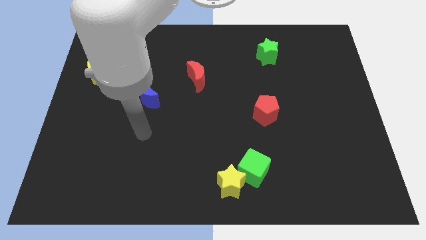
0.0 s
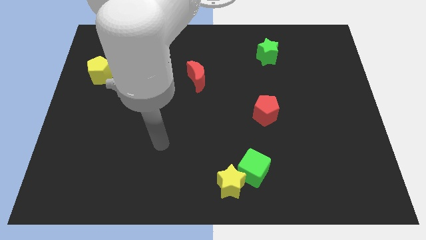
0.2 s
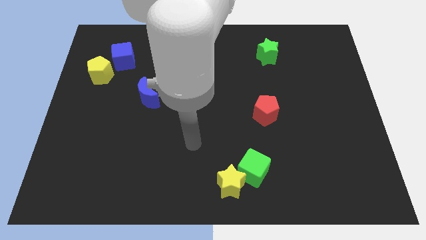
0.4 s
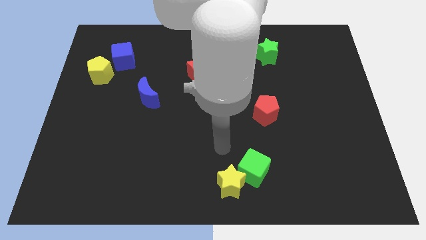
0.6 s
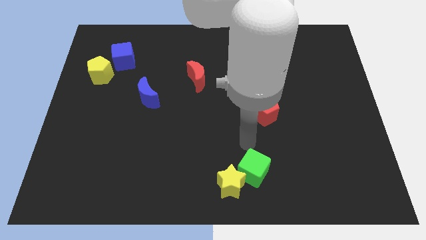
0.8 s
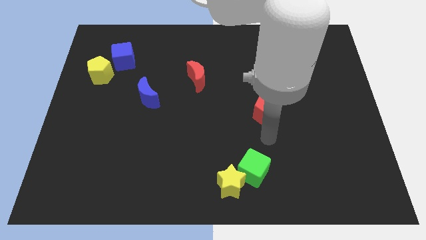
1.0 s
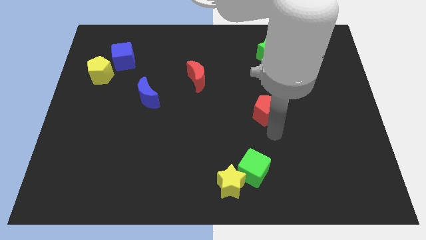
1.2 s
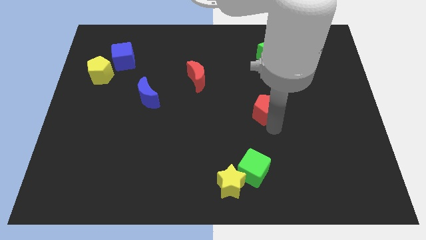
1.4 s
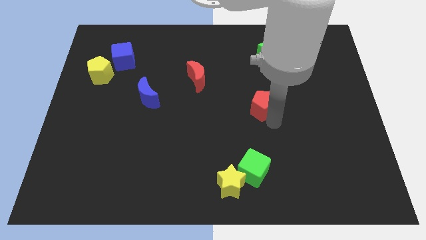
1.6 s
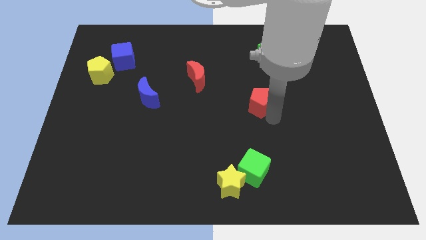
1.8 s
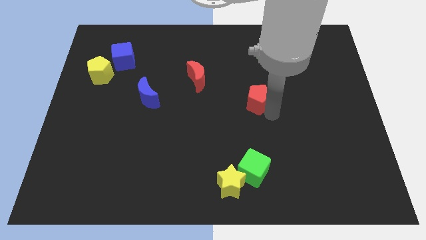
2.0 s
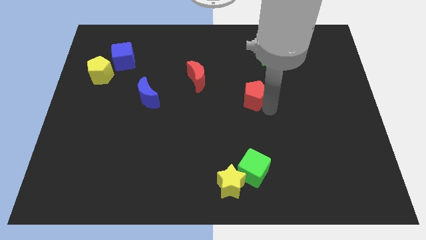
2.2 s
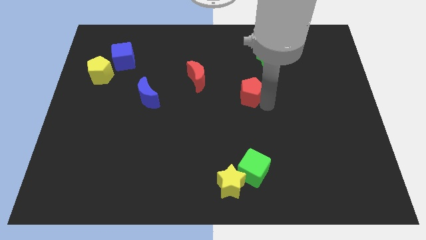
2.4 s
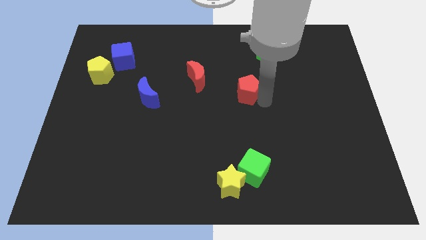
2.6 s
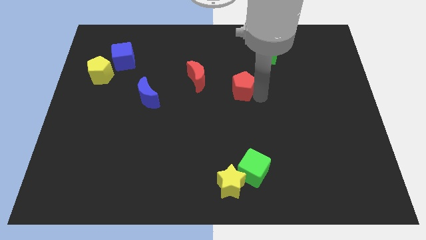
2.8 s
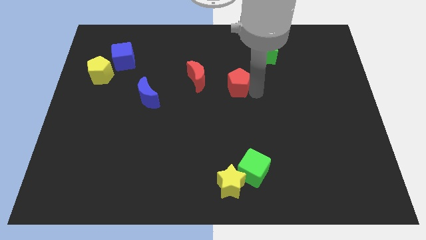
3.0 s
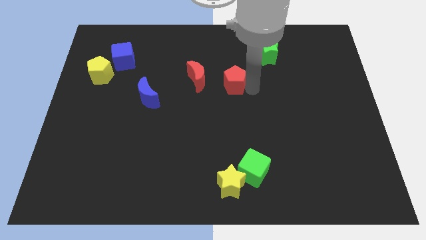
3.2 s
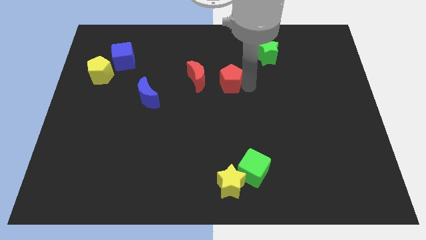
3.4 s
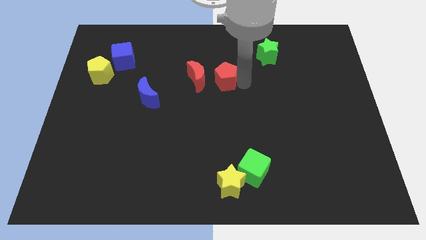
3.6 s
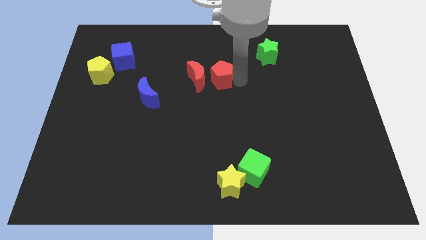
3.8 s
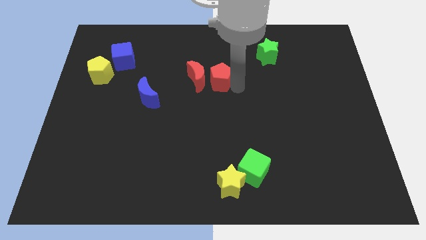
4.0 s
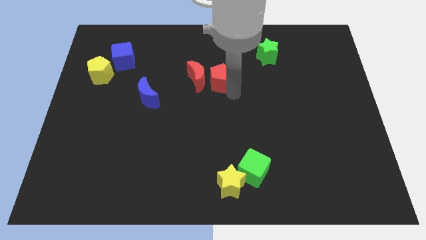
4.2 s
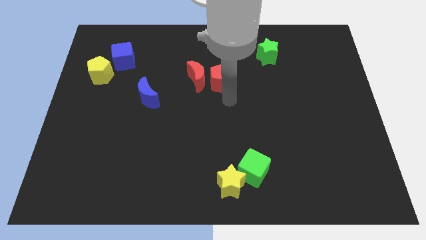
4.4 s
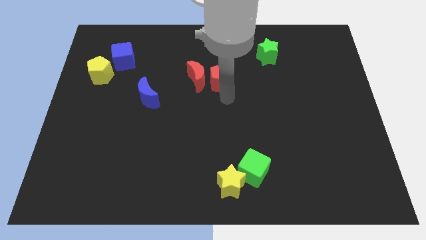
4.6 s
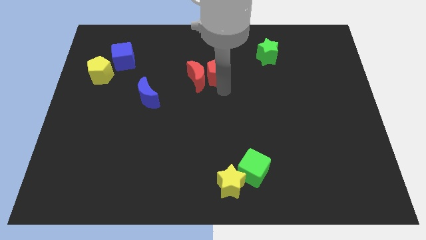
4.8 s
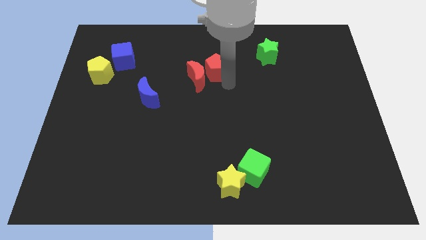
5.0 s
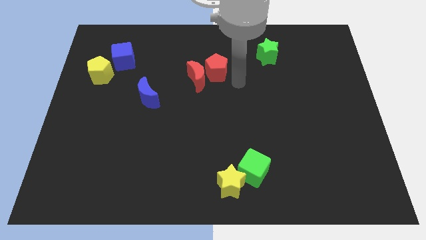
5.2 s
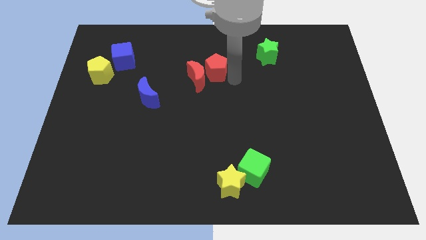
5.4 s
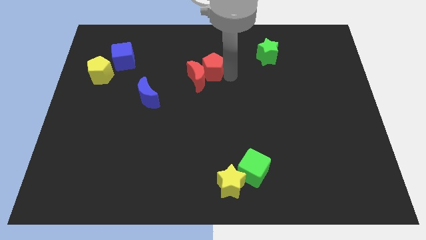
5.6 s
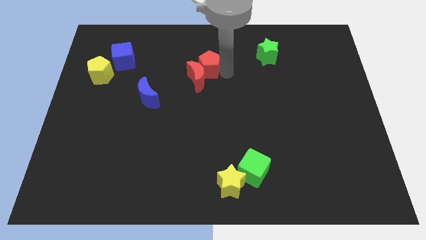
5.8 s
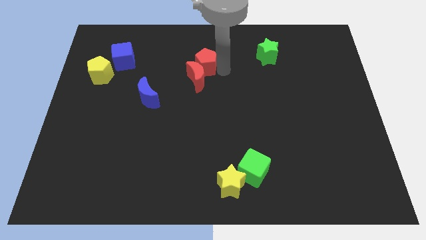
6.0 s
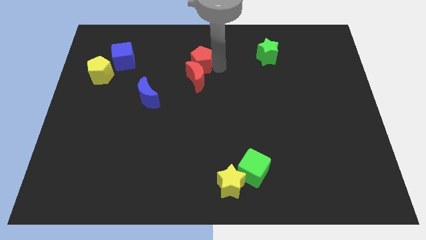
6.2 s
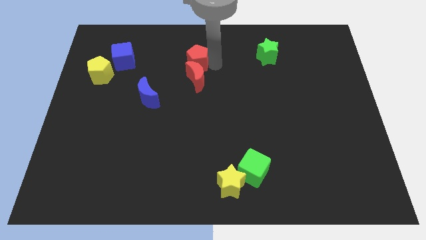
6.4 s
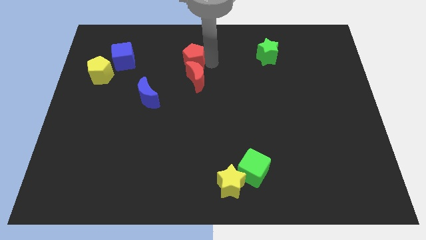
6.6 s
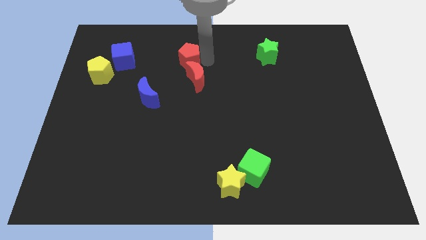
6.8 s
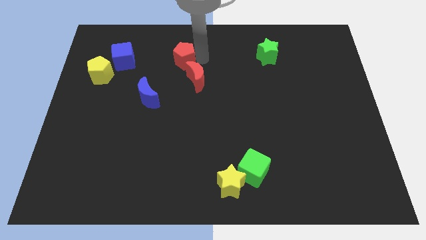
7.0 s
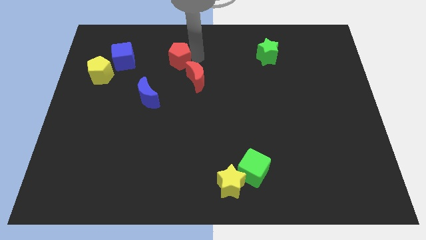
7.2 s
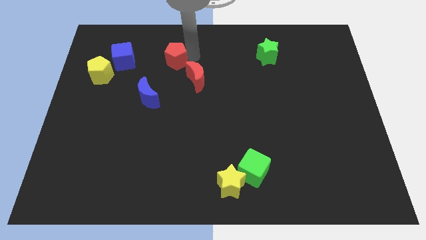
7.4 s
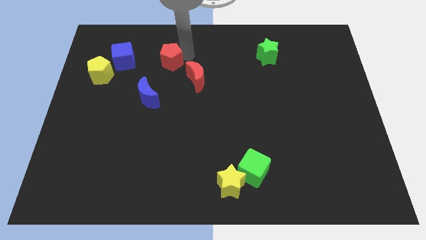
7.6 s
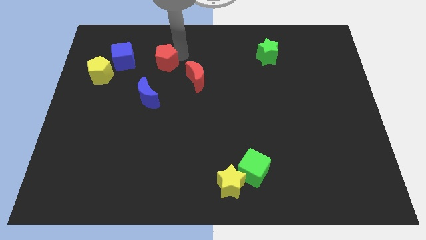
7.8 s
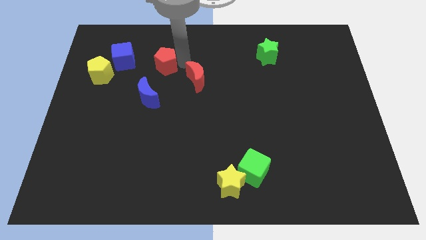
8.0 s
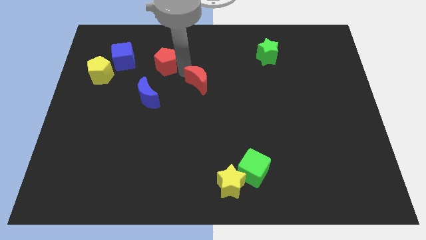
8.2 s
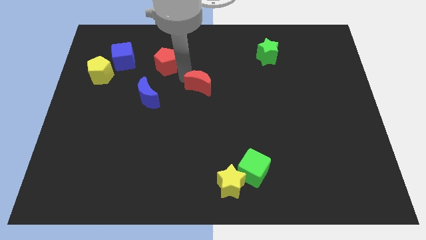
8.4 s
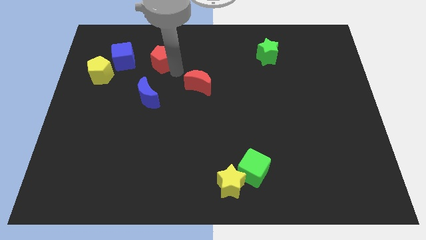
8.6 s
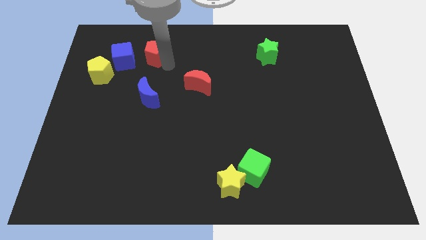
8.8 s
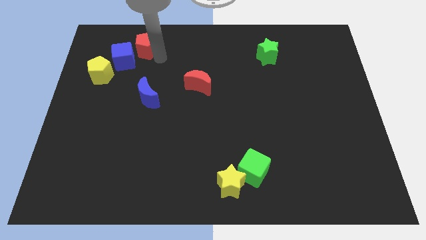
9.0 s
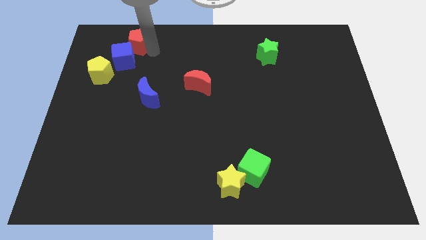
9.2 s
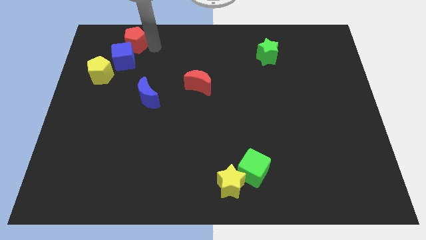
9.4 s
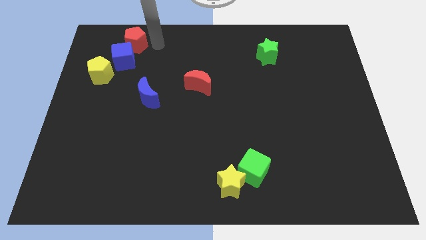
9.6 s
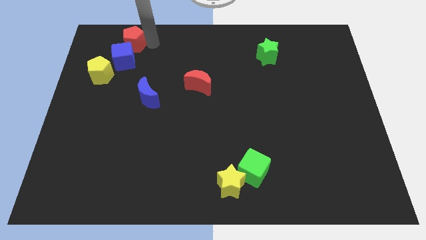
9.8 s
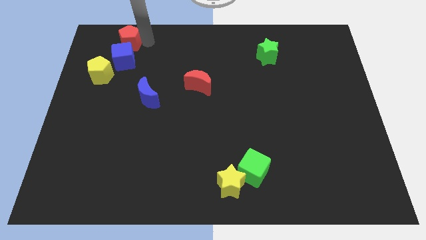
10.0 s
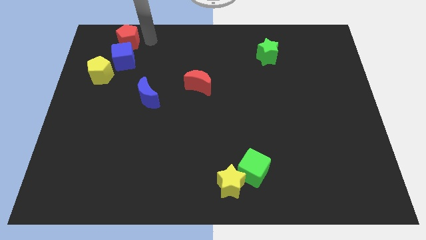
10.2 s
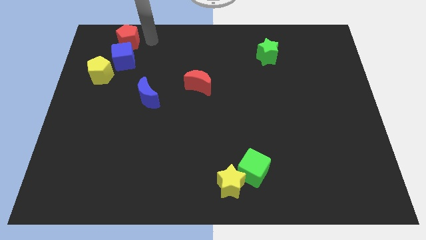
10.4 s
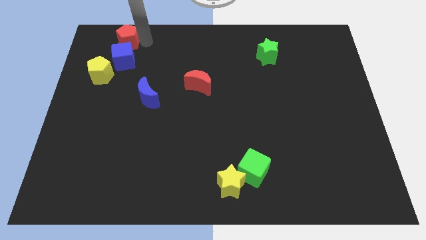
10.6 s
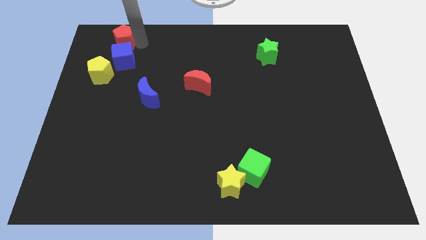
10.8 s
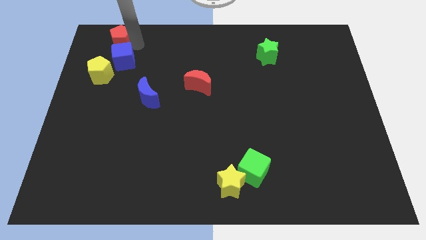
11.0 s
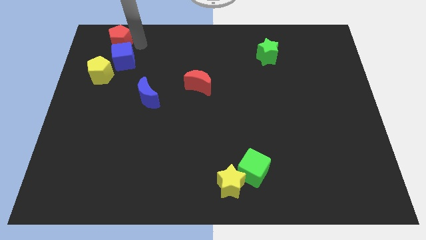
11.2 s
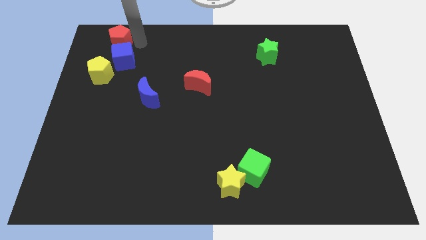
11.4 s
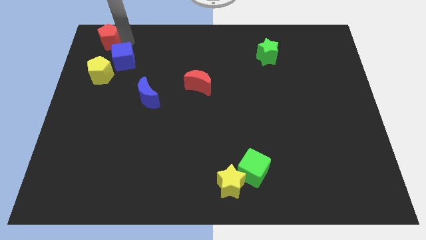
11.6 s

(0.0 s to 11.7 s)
move the red pentagon to the top left corner

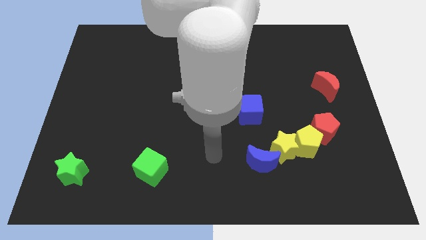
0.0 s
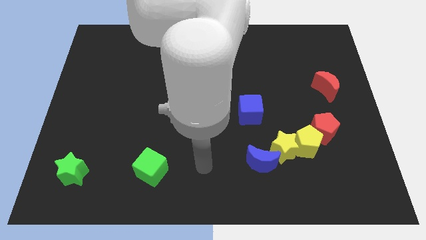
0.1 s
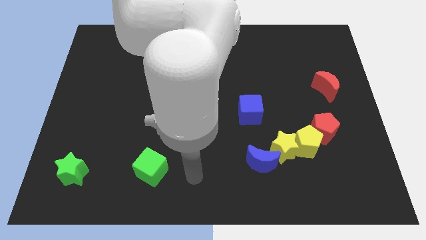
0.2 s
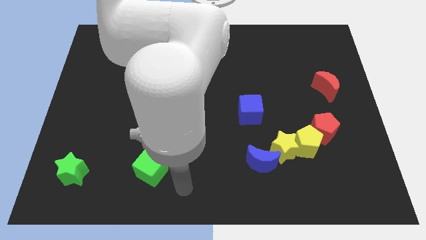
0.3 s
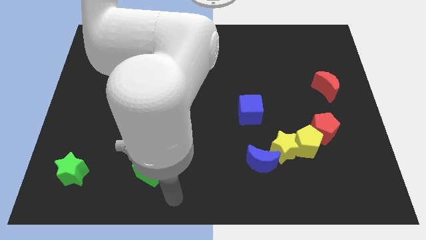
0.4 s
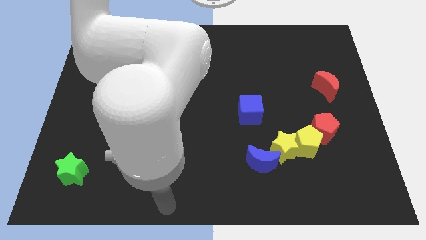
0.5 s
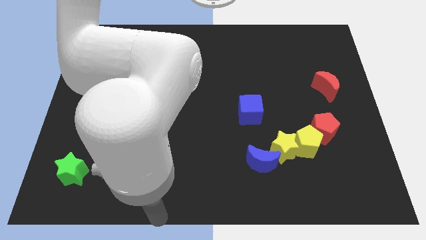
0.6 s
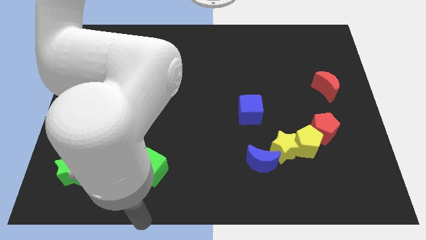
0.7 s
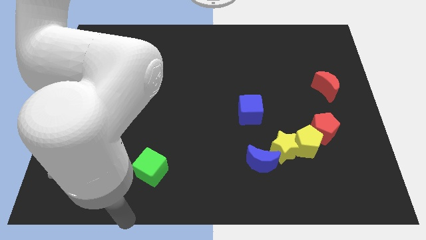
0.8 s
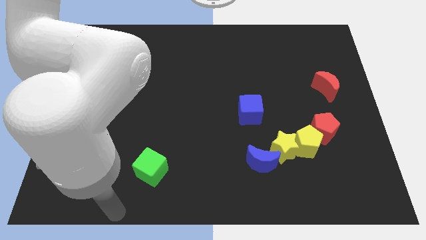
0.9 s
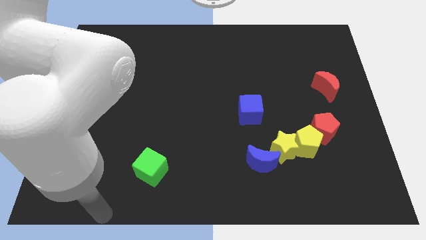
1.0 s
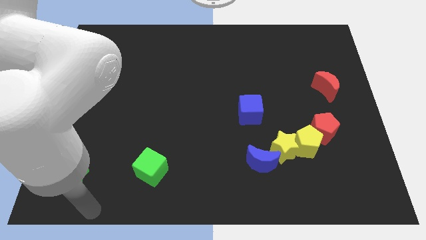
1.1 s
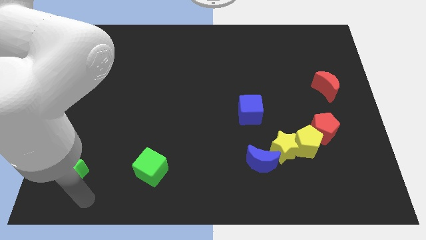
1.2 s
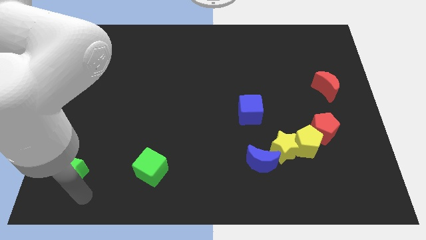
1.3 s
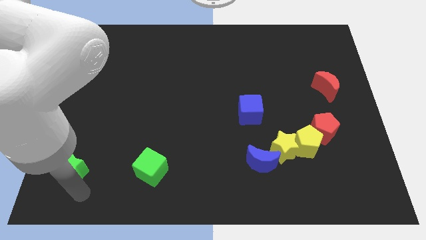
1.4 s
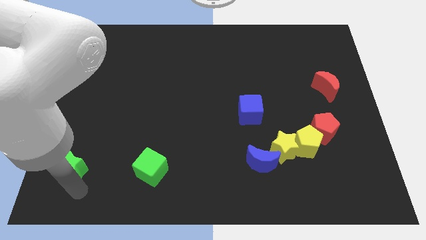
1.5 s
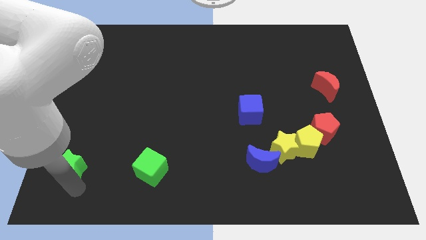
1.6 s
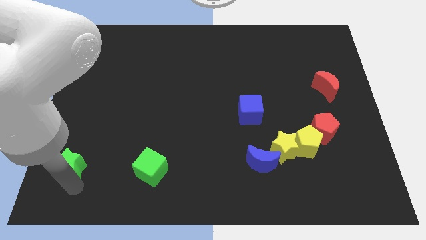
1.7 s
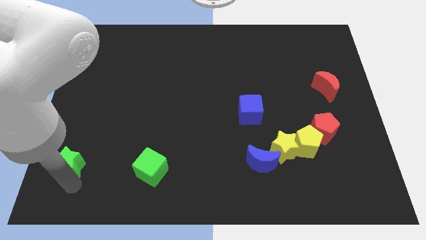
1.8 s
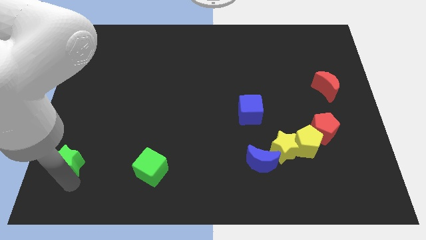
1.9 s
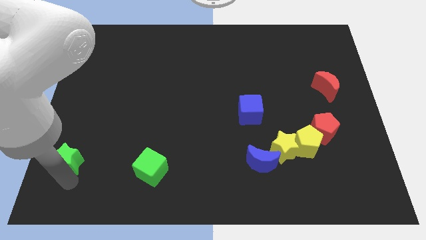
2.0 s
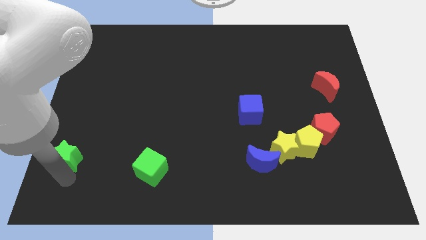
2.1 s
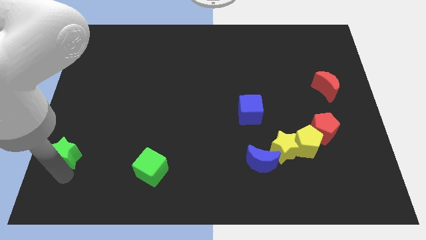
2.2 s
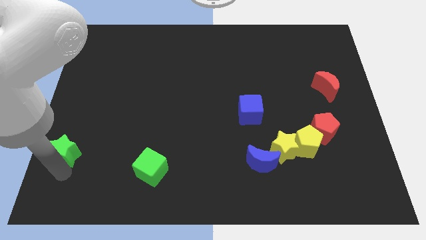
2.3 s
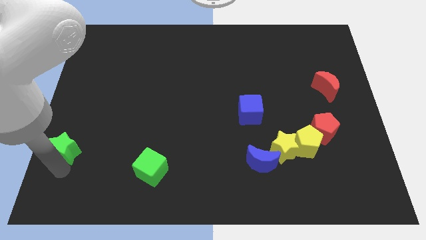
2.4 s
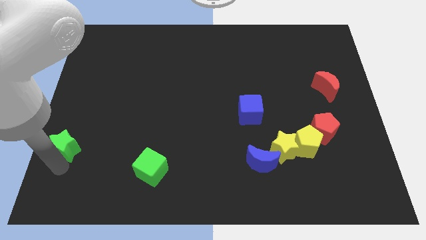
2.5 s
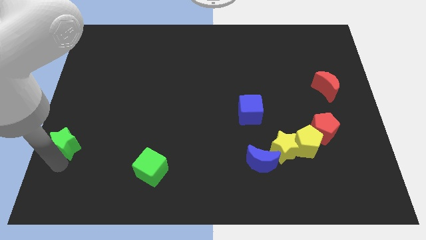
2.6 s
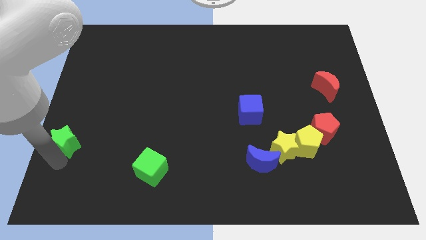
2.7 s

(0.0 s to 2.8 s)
slide the green star to the left side
